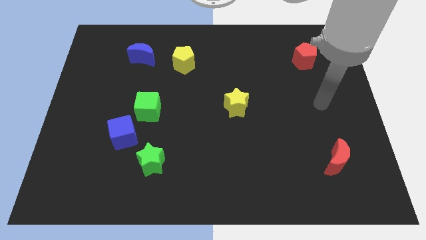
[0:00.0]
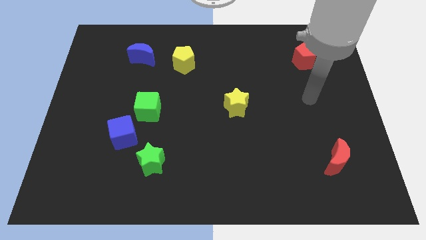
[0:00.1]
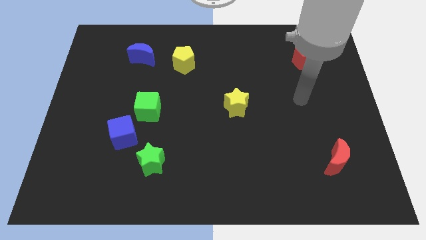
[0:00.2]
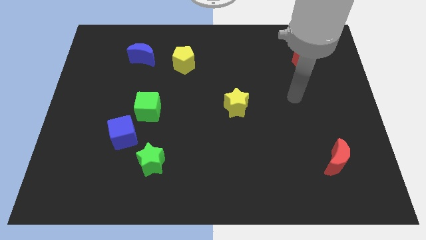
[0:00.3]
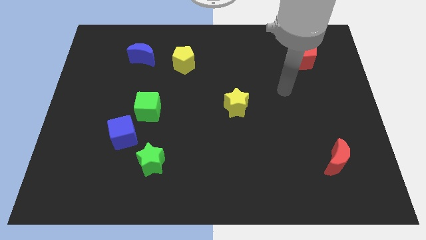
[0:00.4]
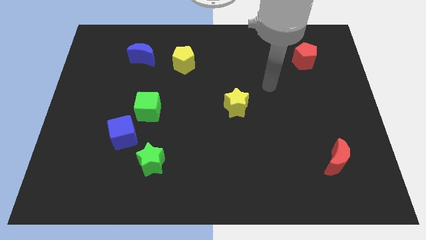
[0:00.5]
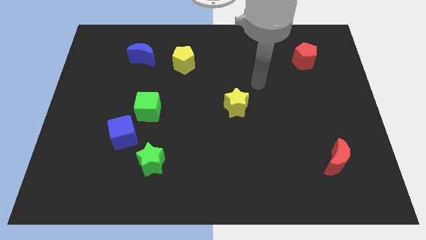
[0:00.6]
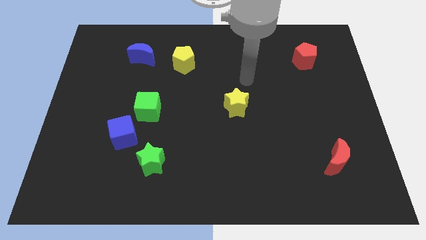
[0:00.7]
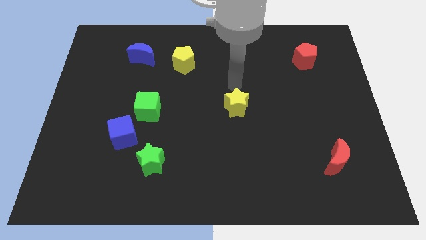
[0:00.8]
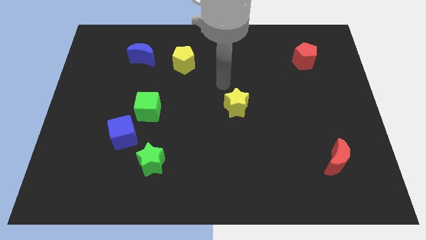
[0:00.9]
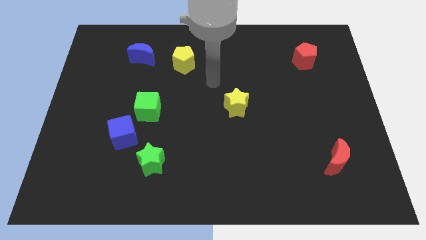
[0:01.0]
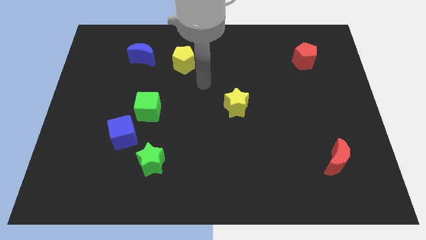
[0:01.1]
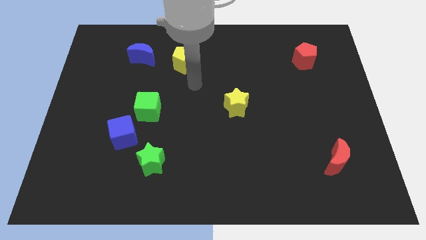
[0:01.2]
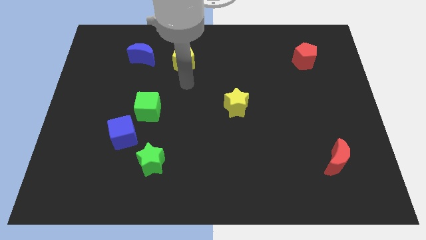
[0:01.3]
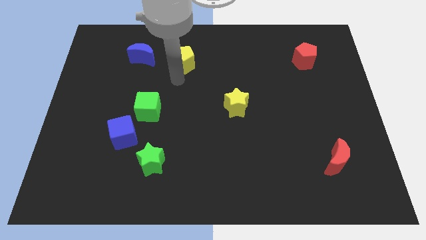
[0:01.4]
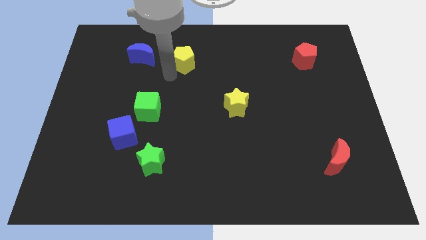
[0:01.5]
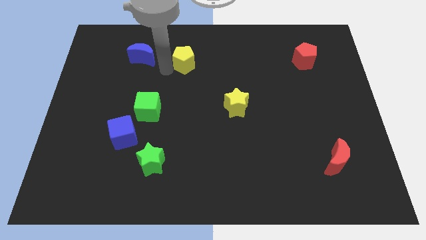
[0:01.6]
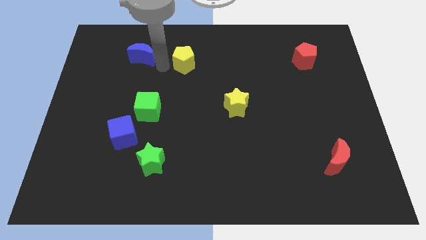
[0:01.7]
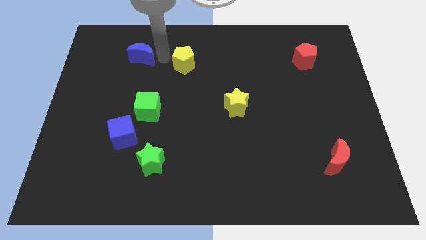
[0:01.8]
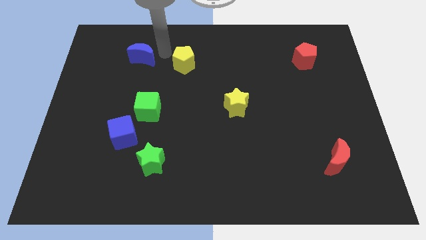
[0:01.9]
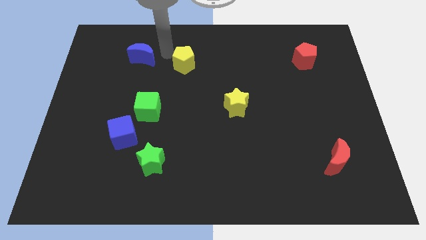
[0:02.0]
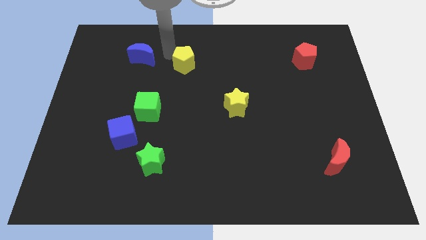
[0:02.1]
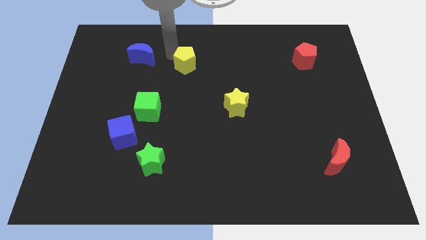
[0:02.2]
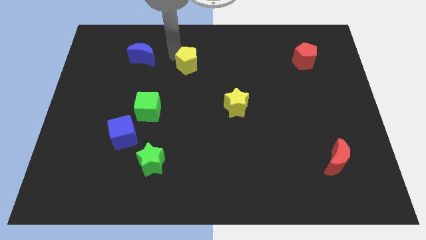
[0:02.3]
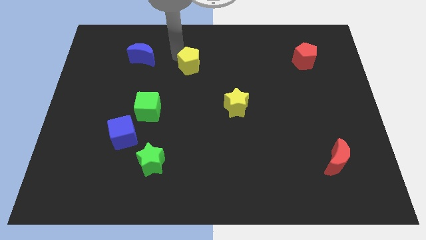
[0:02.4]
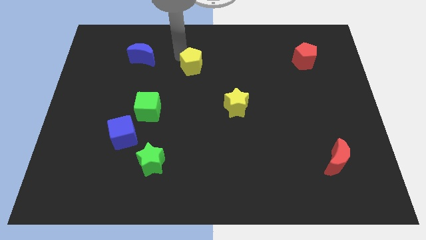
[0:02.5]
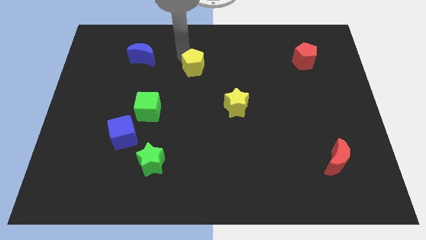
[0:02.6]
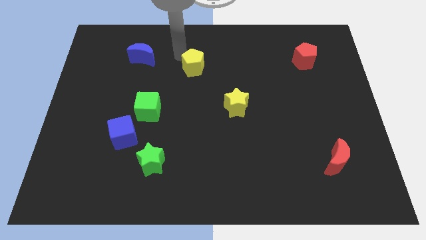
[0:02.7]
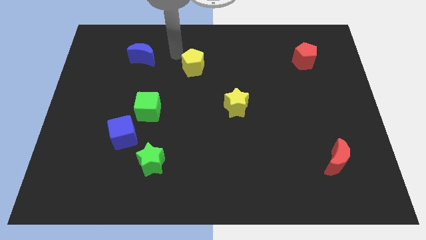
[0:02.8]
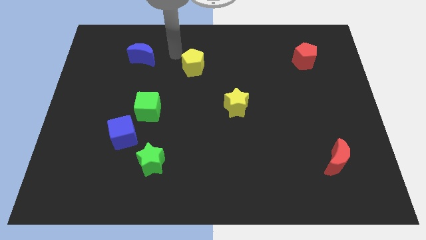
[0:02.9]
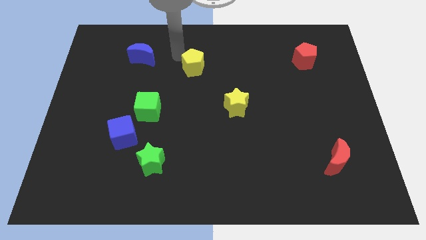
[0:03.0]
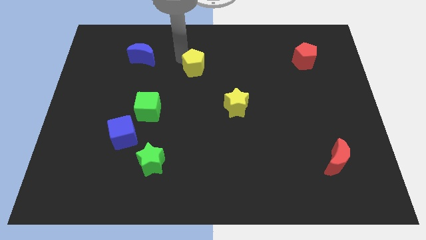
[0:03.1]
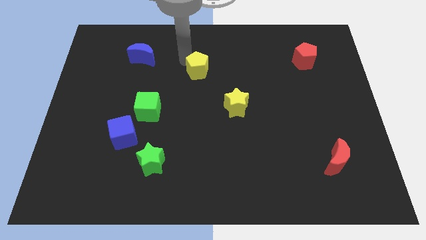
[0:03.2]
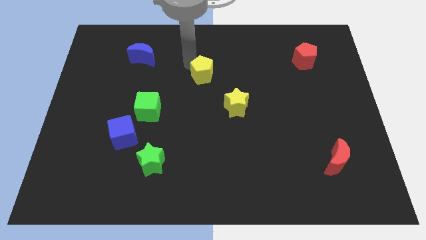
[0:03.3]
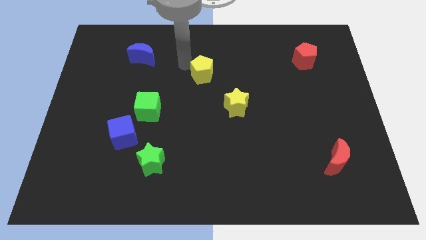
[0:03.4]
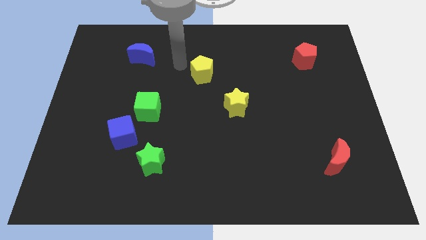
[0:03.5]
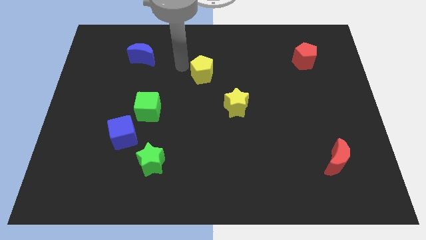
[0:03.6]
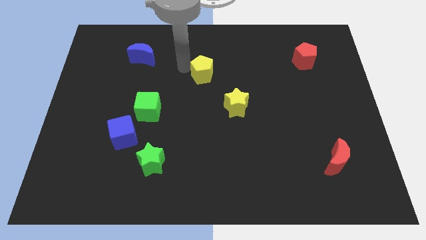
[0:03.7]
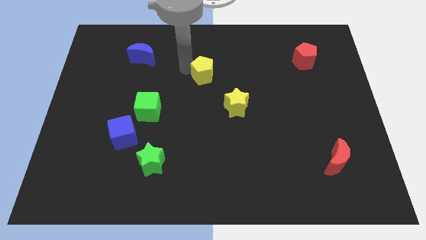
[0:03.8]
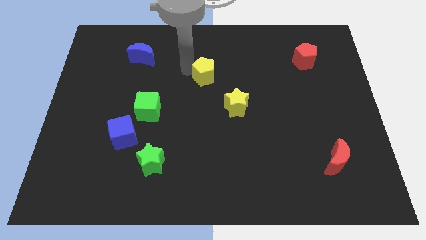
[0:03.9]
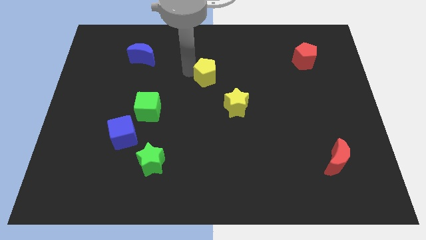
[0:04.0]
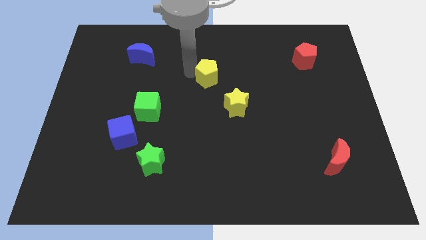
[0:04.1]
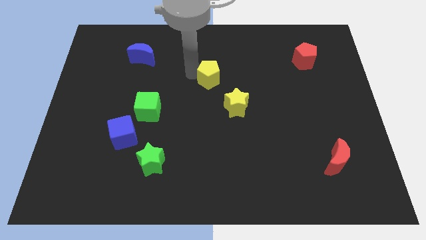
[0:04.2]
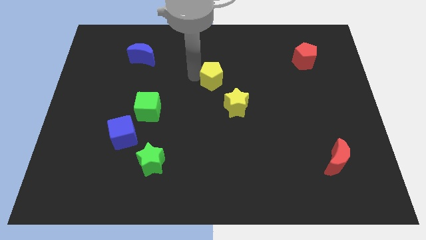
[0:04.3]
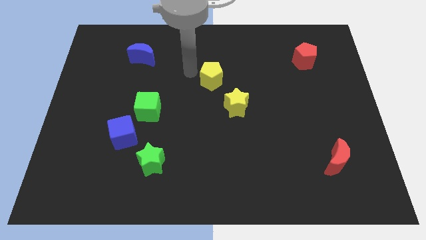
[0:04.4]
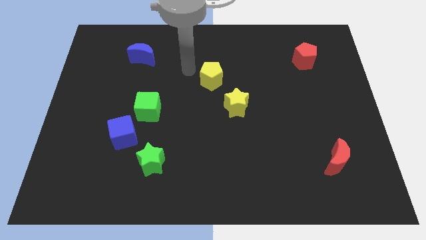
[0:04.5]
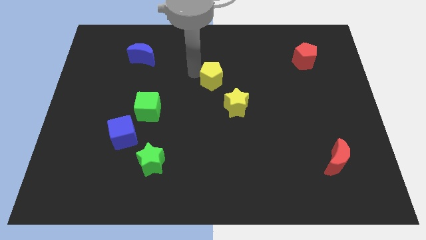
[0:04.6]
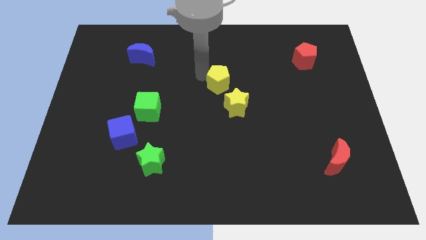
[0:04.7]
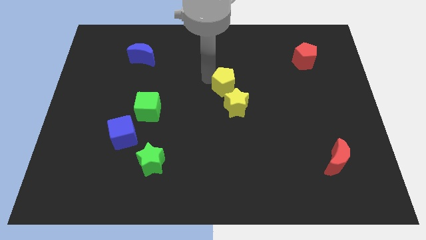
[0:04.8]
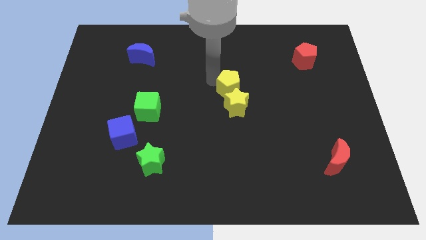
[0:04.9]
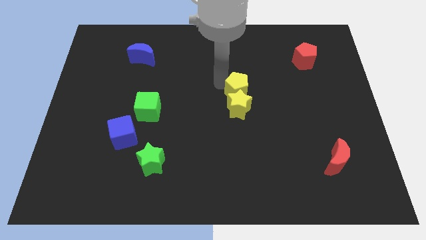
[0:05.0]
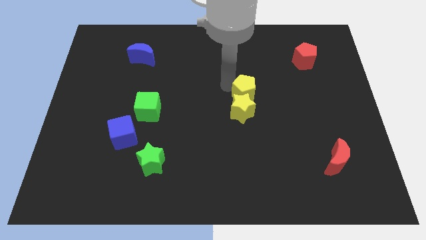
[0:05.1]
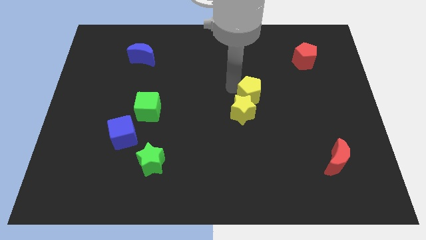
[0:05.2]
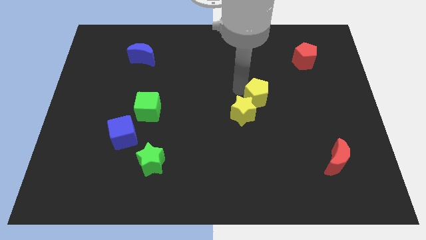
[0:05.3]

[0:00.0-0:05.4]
move the yellow pentagon down and right diagonally

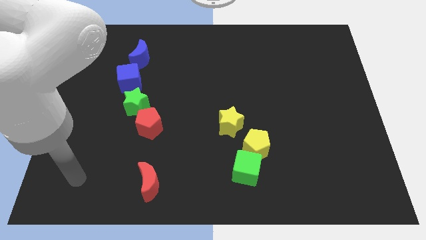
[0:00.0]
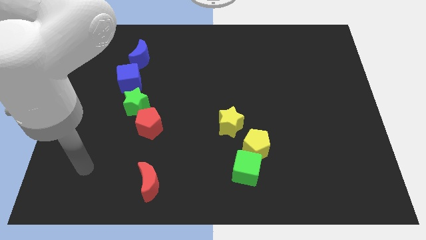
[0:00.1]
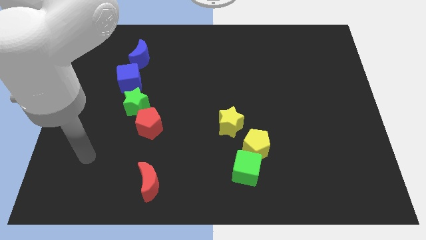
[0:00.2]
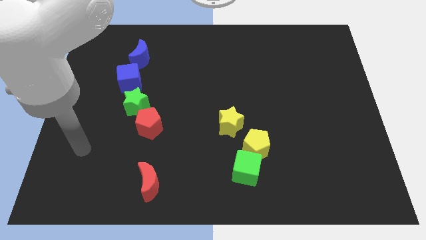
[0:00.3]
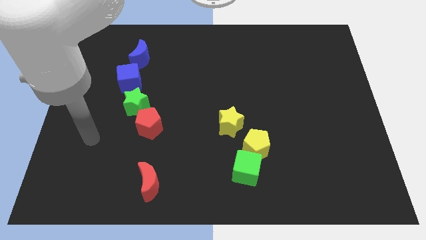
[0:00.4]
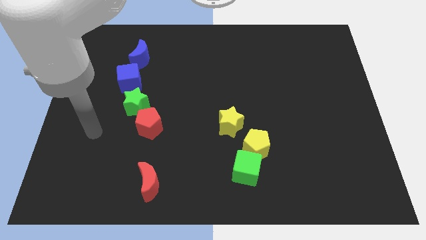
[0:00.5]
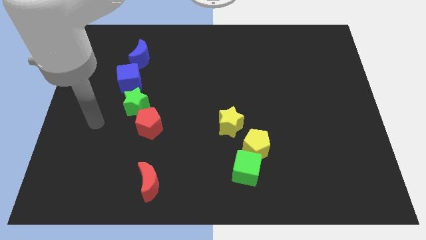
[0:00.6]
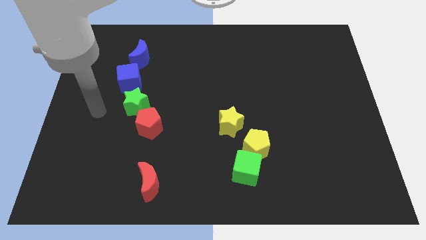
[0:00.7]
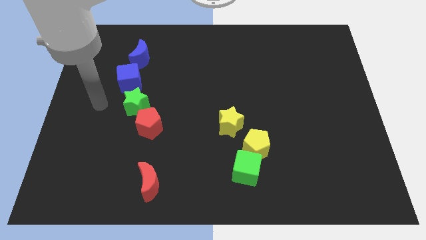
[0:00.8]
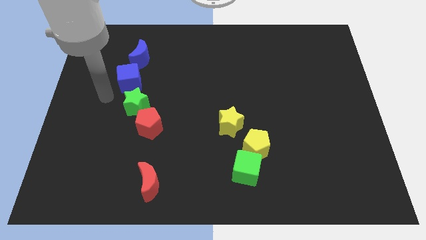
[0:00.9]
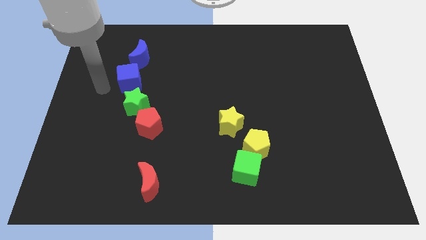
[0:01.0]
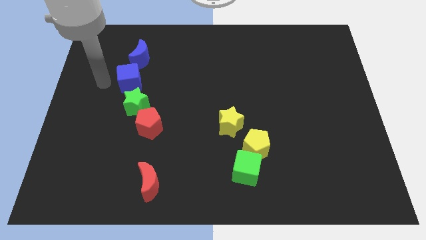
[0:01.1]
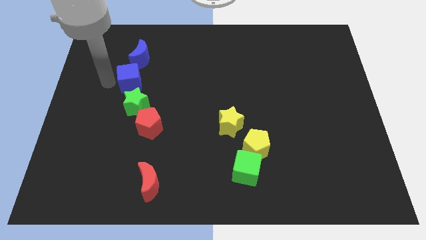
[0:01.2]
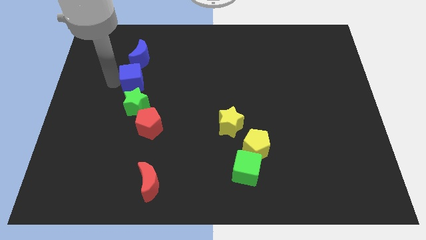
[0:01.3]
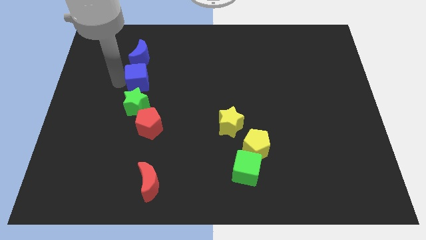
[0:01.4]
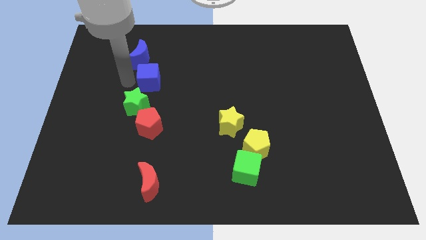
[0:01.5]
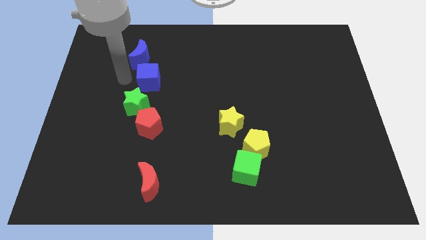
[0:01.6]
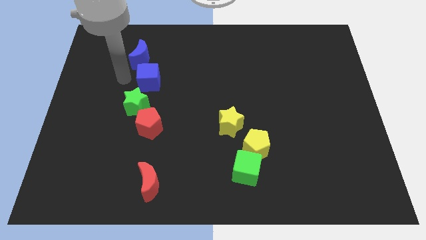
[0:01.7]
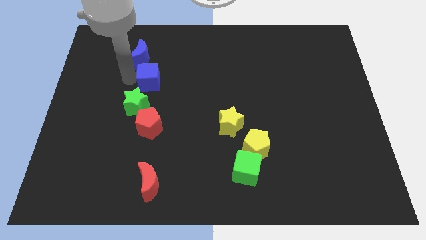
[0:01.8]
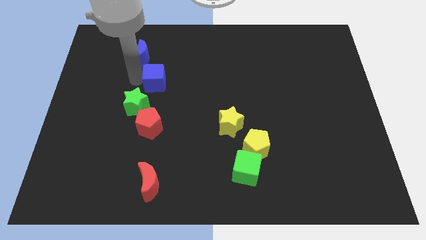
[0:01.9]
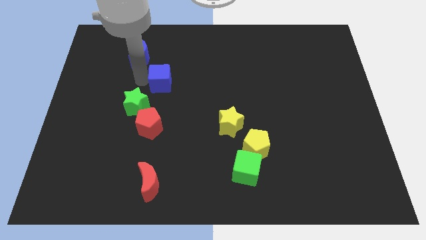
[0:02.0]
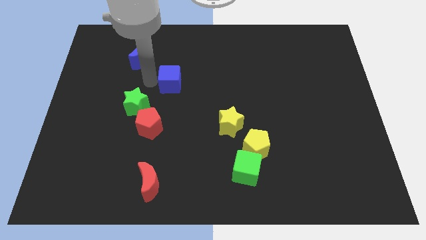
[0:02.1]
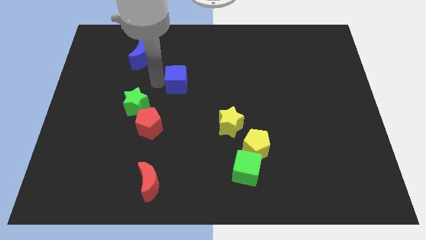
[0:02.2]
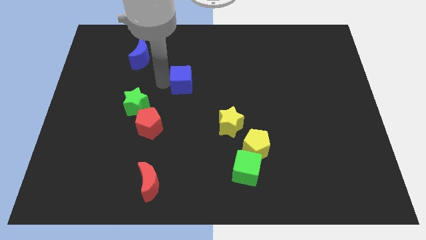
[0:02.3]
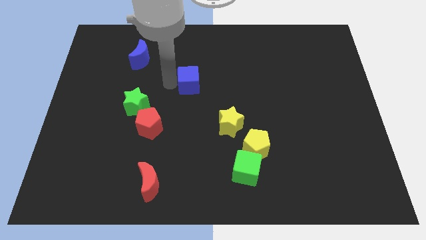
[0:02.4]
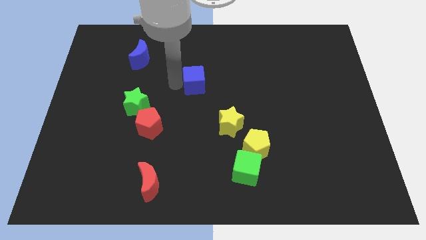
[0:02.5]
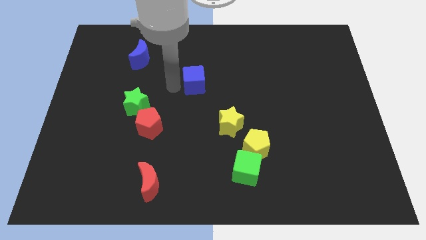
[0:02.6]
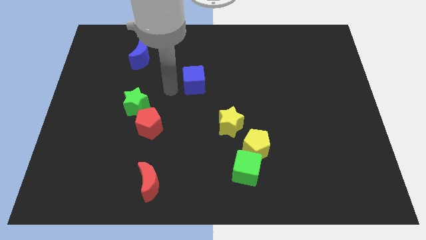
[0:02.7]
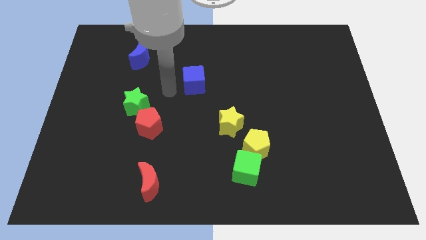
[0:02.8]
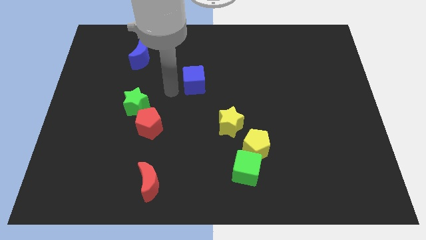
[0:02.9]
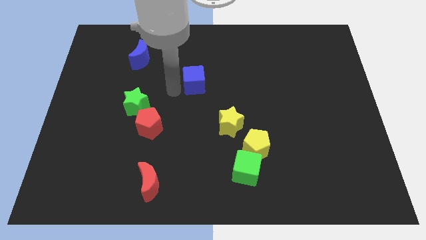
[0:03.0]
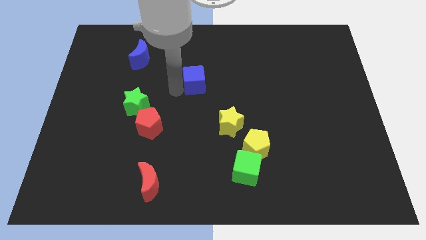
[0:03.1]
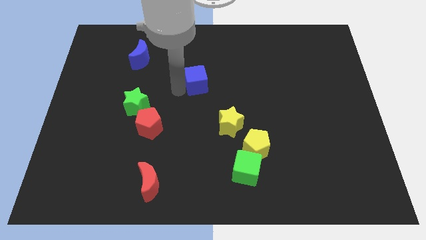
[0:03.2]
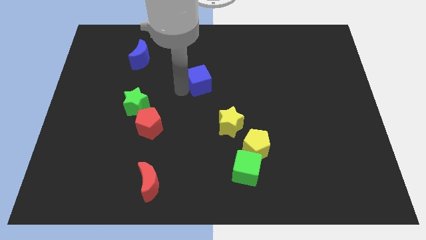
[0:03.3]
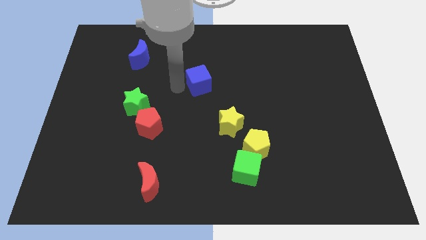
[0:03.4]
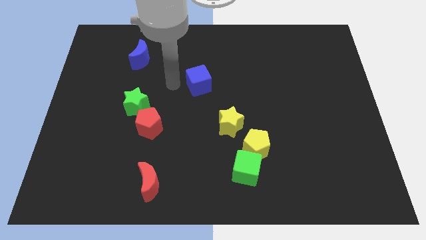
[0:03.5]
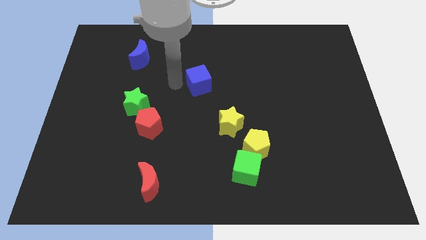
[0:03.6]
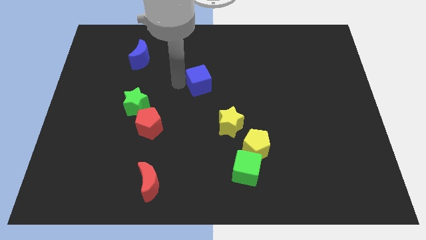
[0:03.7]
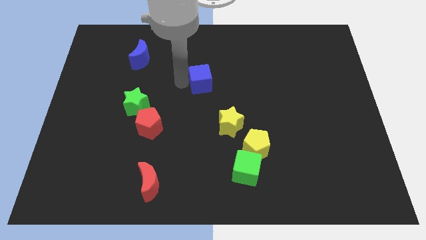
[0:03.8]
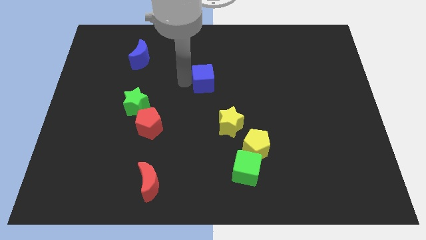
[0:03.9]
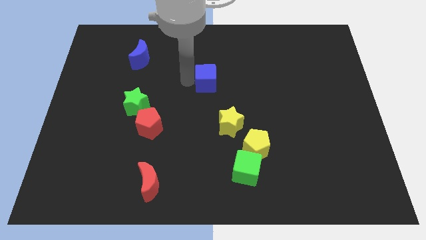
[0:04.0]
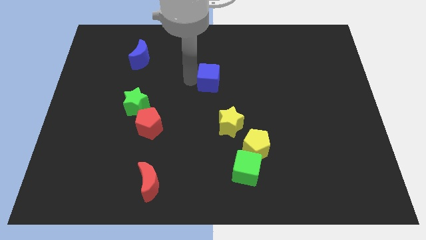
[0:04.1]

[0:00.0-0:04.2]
slide the blue cube to the right
